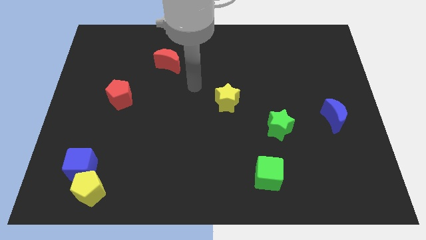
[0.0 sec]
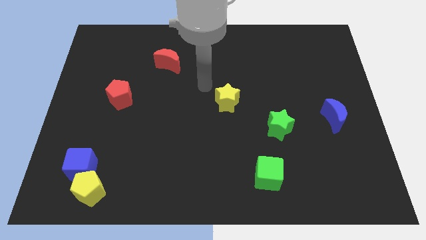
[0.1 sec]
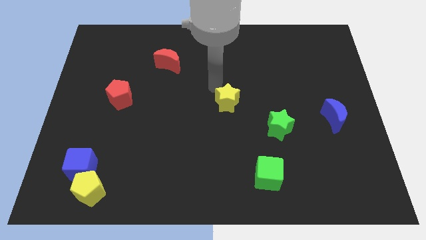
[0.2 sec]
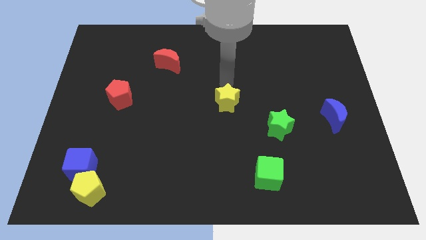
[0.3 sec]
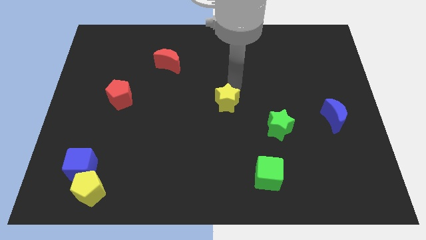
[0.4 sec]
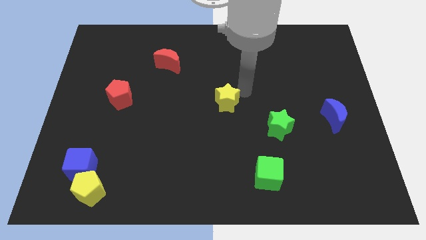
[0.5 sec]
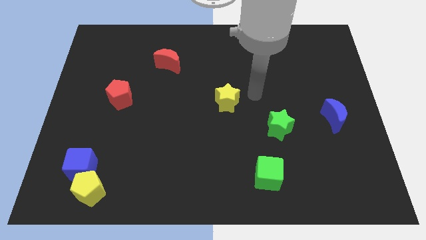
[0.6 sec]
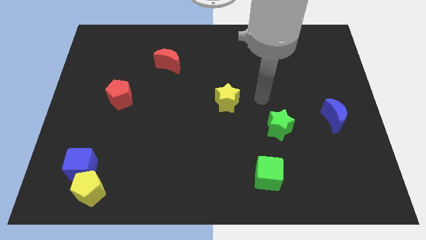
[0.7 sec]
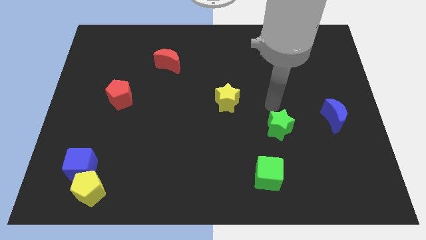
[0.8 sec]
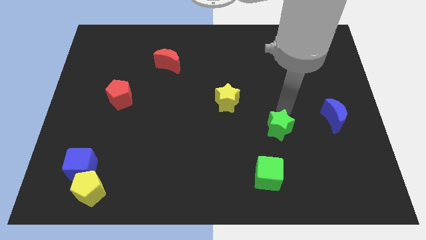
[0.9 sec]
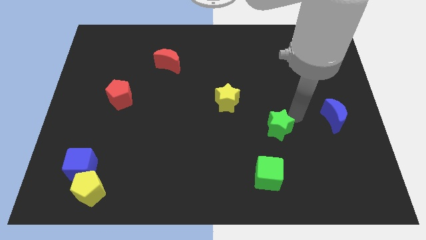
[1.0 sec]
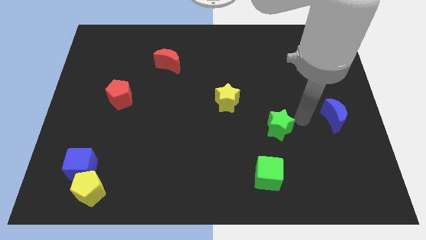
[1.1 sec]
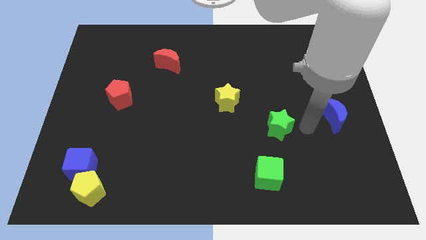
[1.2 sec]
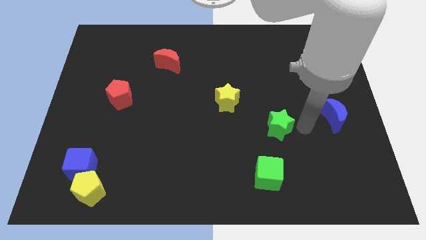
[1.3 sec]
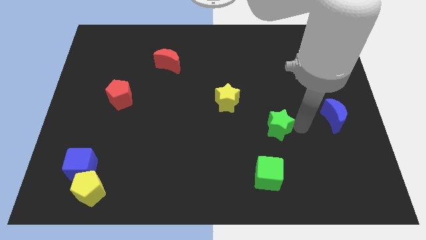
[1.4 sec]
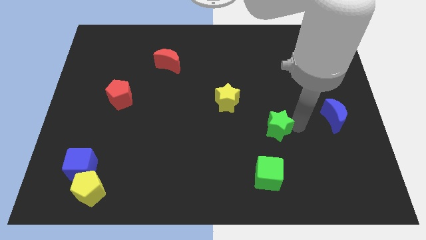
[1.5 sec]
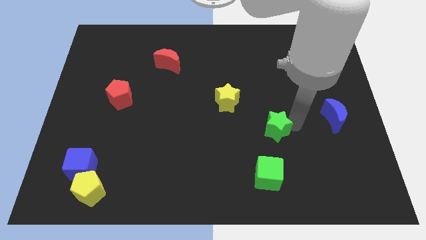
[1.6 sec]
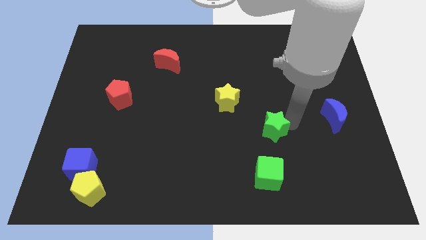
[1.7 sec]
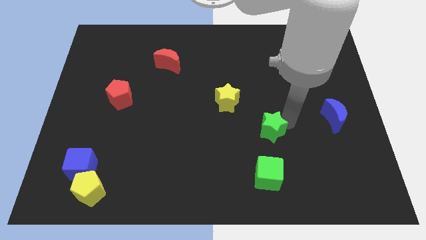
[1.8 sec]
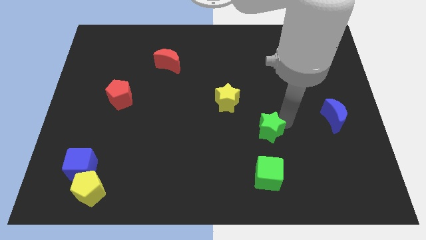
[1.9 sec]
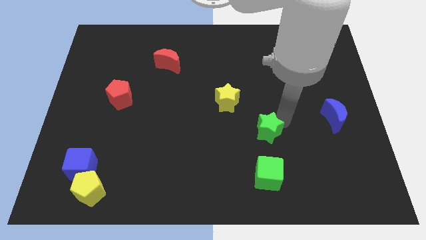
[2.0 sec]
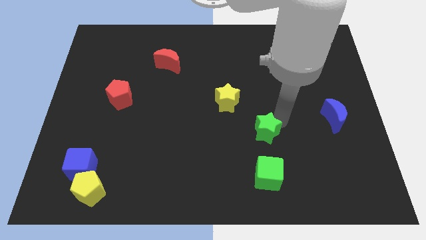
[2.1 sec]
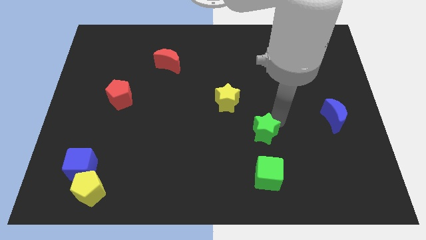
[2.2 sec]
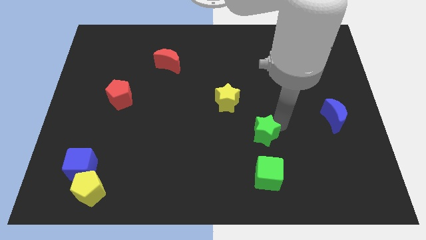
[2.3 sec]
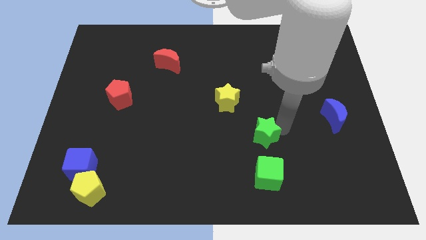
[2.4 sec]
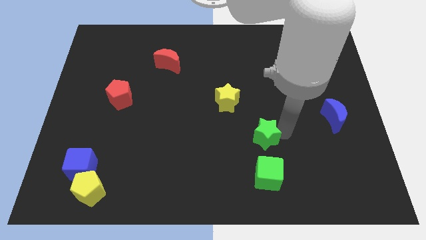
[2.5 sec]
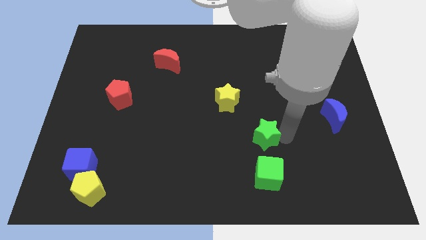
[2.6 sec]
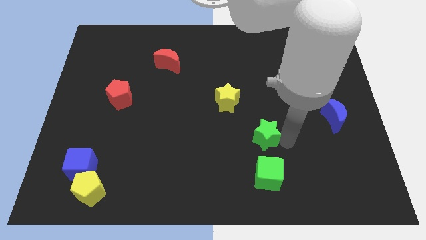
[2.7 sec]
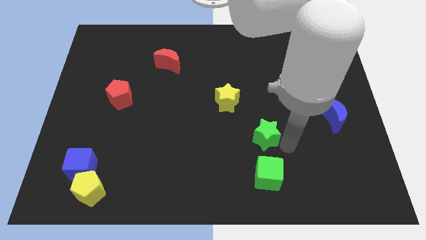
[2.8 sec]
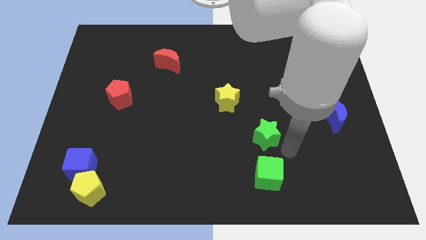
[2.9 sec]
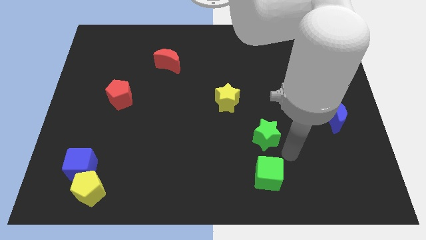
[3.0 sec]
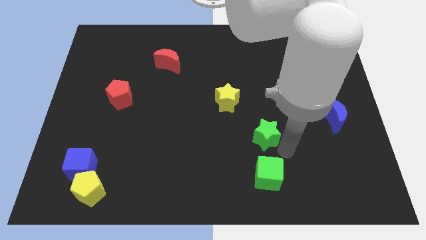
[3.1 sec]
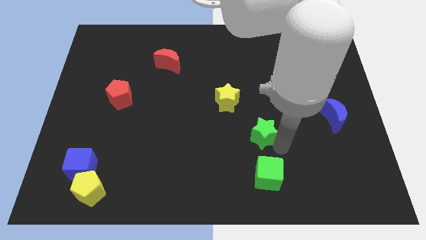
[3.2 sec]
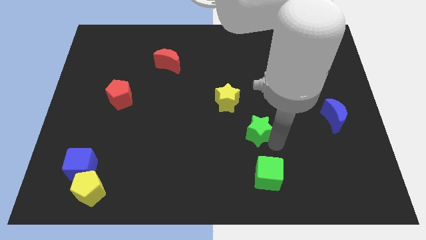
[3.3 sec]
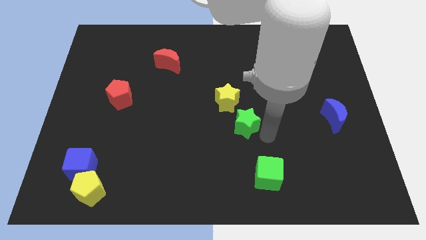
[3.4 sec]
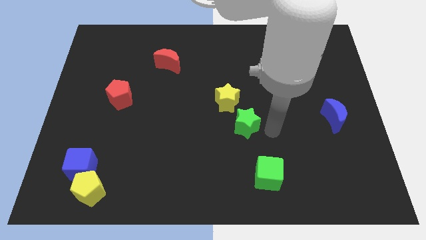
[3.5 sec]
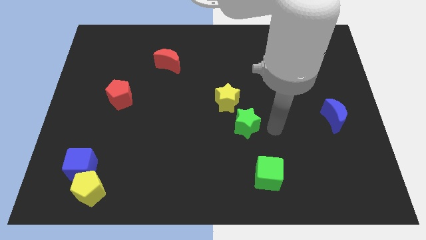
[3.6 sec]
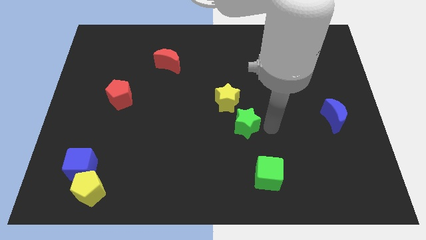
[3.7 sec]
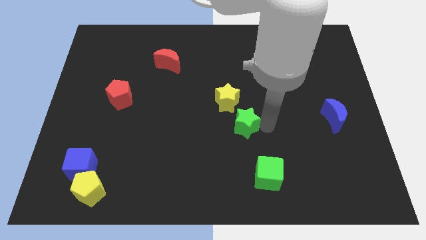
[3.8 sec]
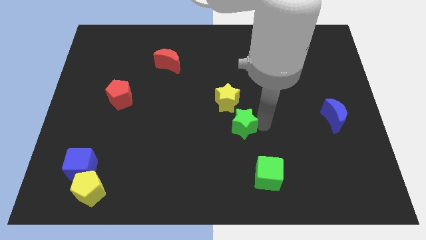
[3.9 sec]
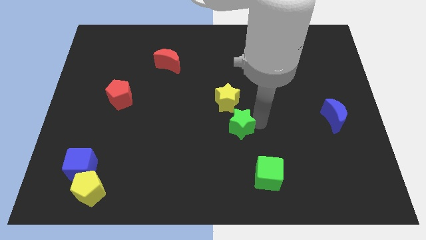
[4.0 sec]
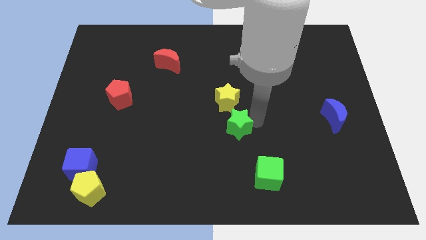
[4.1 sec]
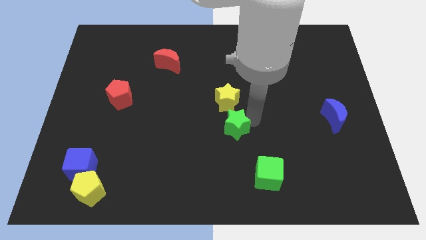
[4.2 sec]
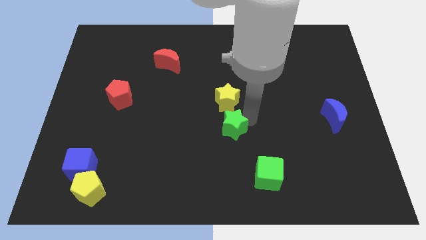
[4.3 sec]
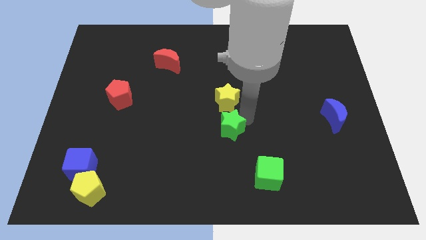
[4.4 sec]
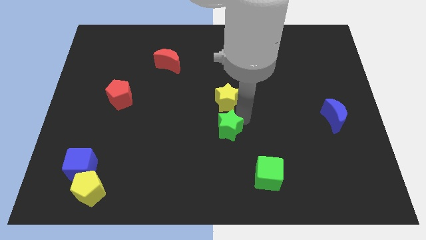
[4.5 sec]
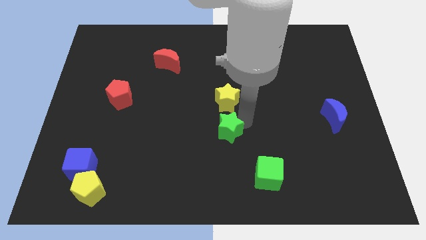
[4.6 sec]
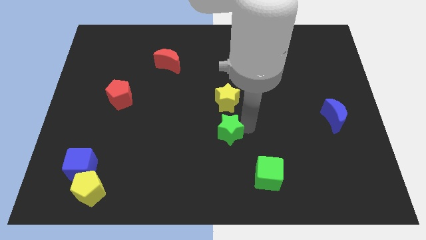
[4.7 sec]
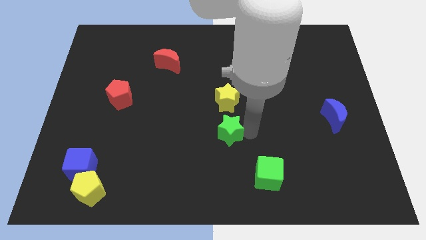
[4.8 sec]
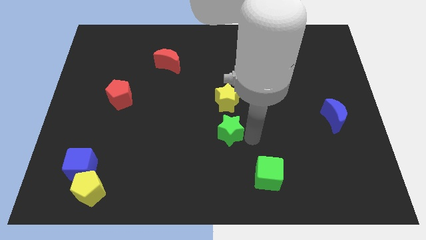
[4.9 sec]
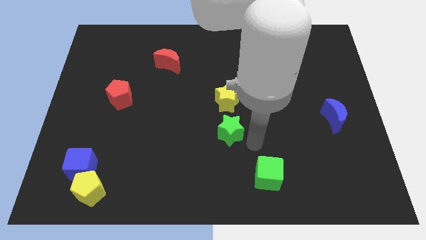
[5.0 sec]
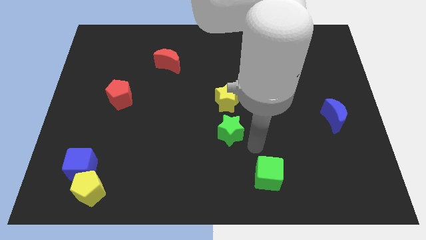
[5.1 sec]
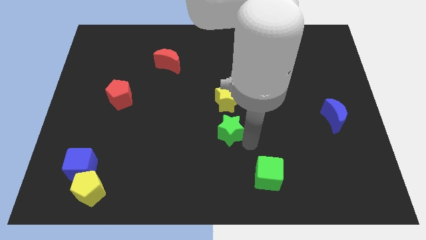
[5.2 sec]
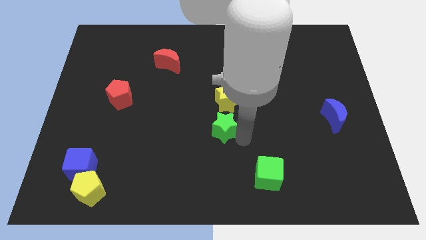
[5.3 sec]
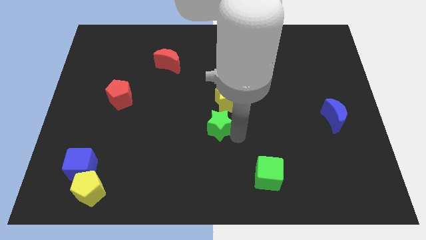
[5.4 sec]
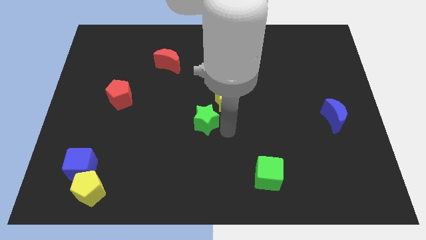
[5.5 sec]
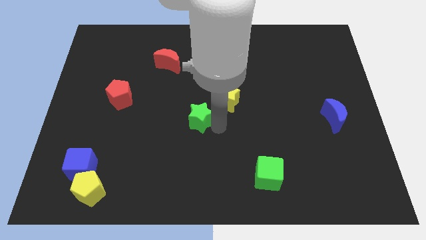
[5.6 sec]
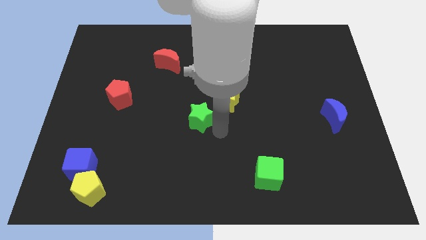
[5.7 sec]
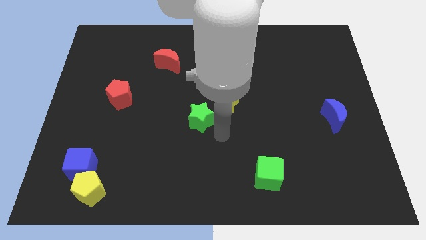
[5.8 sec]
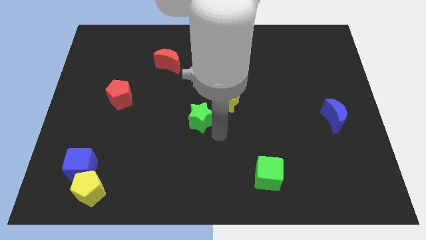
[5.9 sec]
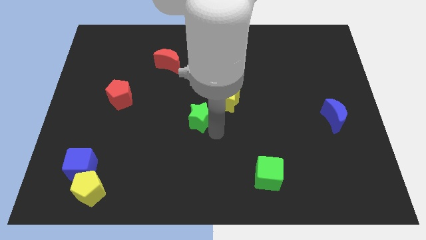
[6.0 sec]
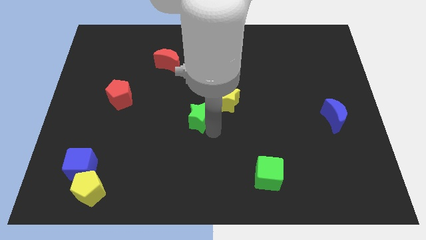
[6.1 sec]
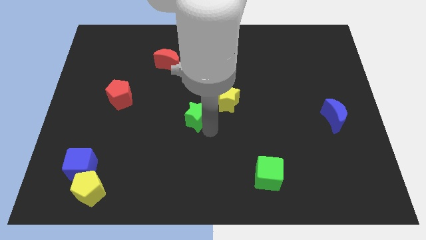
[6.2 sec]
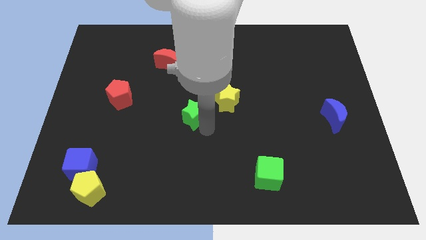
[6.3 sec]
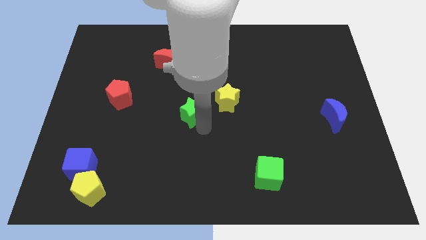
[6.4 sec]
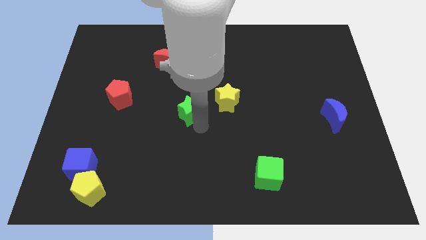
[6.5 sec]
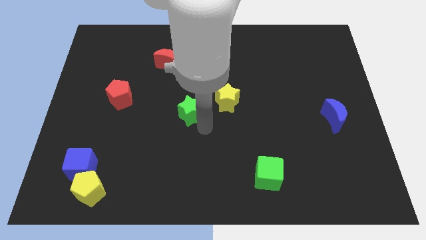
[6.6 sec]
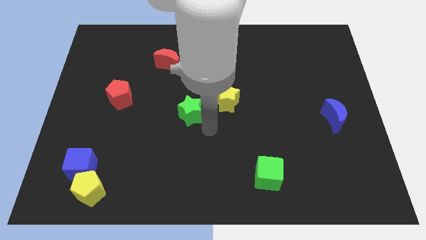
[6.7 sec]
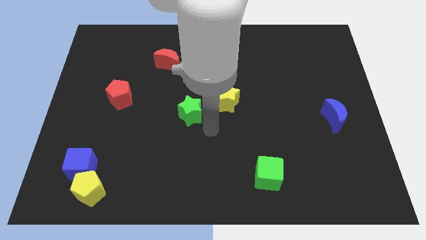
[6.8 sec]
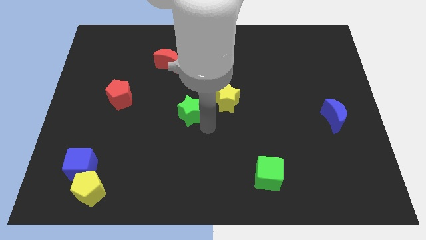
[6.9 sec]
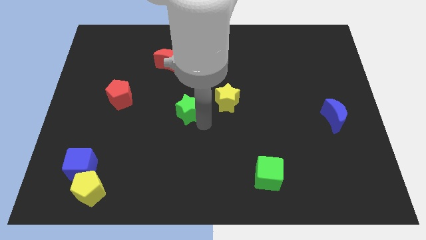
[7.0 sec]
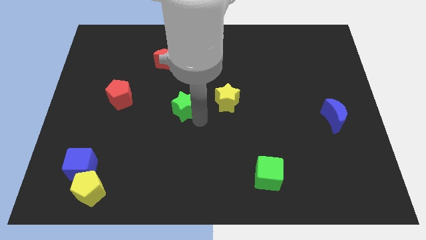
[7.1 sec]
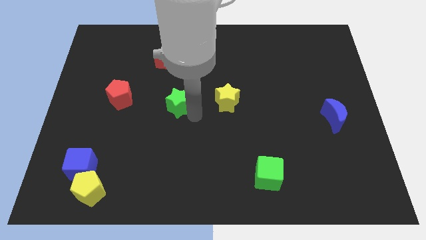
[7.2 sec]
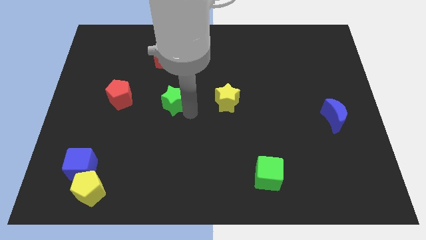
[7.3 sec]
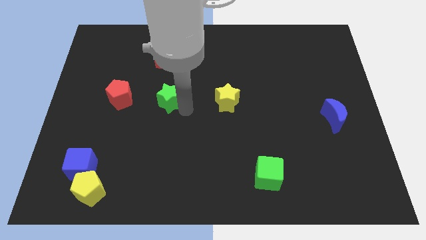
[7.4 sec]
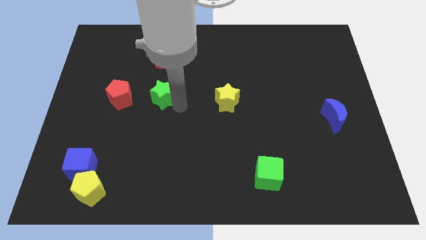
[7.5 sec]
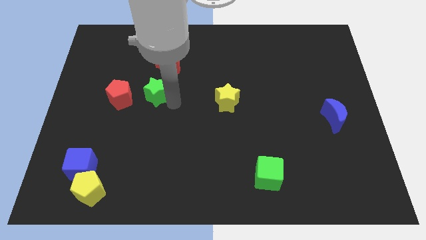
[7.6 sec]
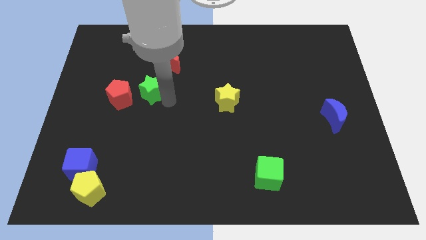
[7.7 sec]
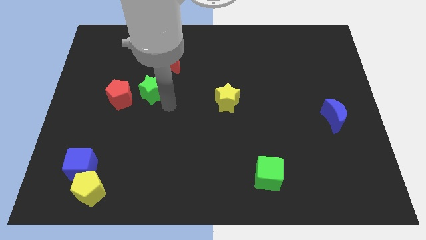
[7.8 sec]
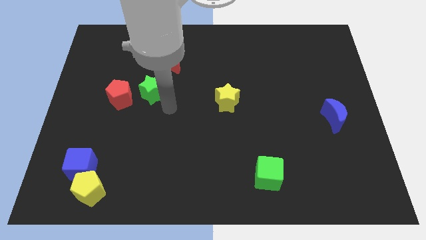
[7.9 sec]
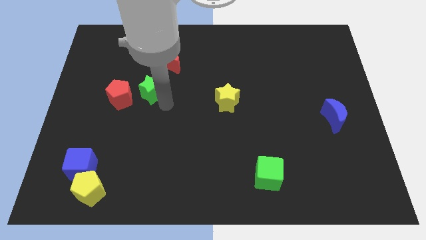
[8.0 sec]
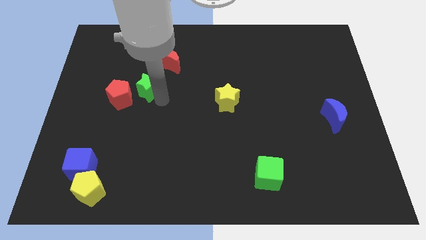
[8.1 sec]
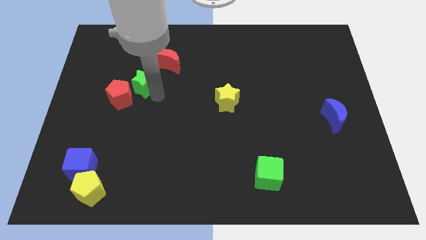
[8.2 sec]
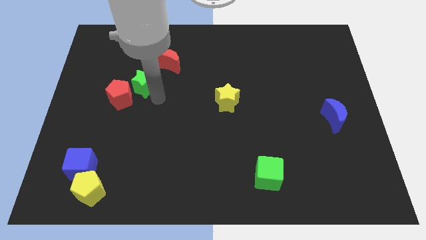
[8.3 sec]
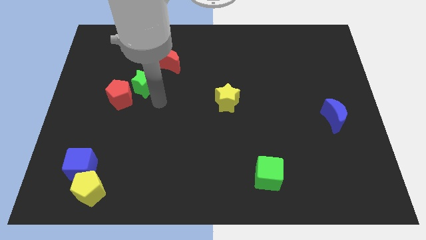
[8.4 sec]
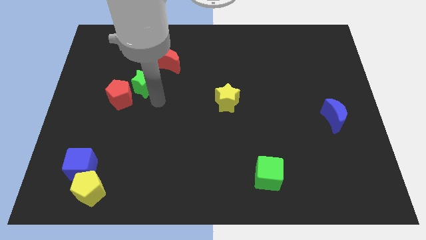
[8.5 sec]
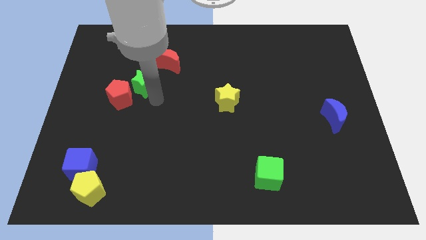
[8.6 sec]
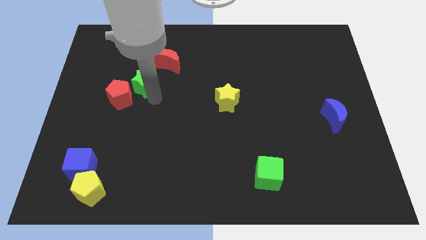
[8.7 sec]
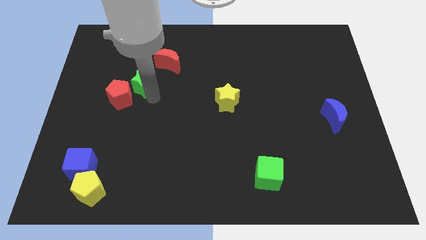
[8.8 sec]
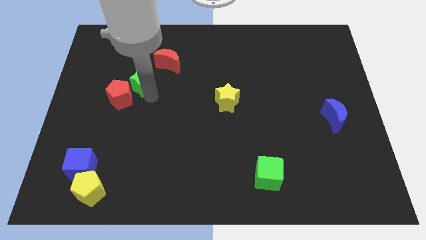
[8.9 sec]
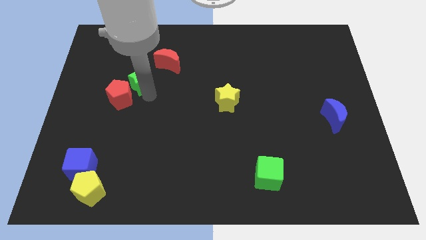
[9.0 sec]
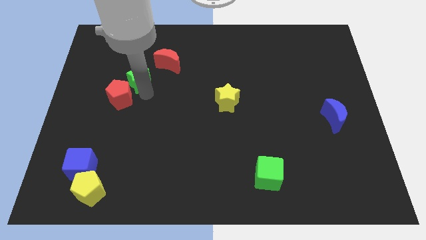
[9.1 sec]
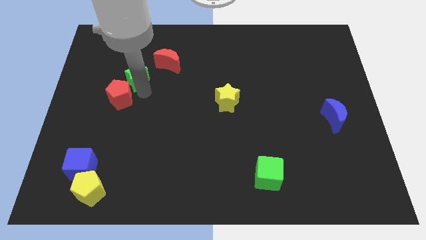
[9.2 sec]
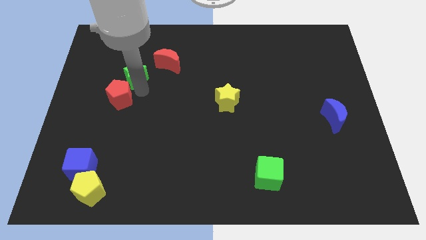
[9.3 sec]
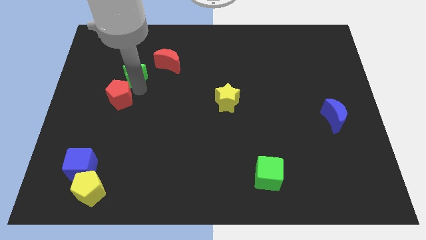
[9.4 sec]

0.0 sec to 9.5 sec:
push the green star just left of the red moon
